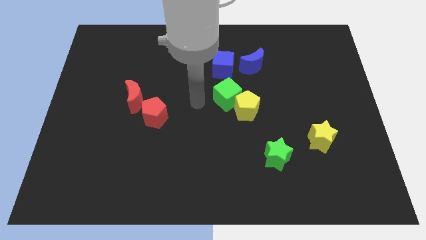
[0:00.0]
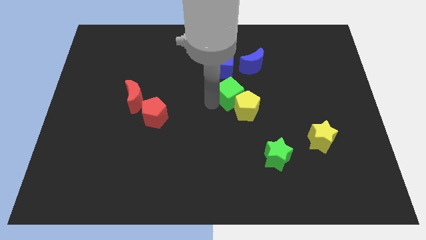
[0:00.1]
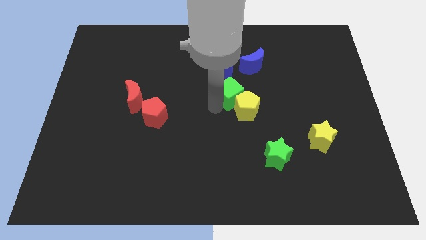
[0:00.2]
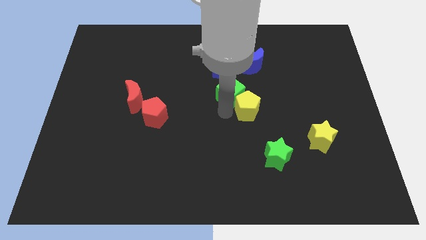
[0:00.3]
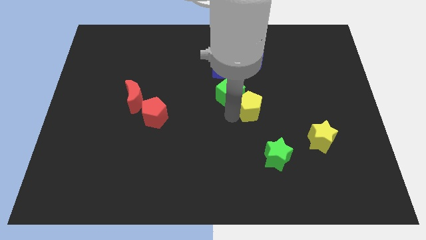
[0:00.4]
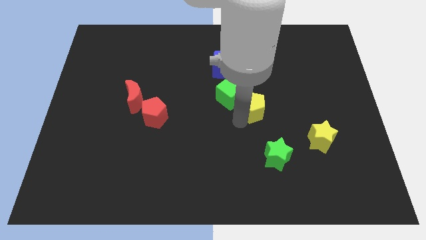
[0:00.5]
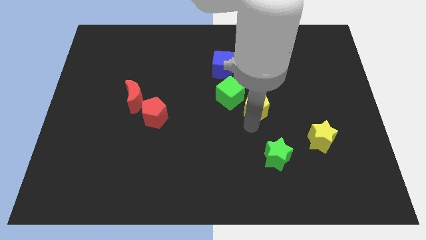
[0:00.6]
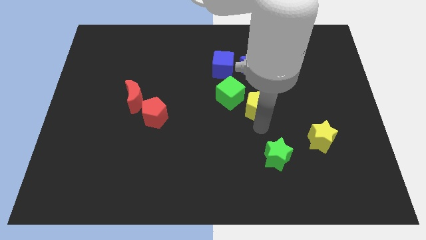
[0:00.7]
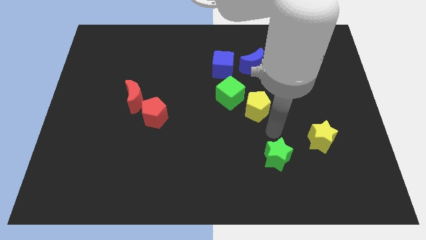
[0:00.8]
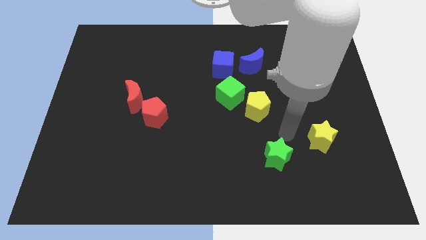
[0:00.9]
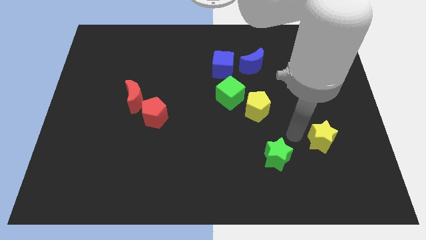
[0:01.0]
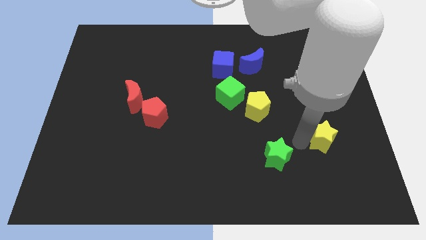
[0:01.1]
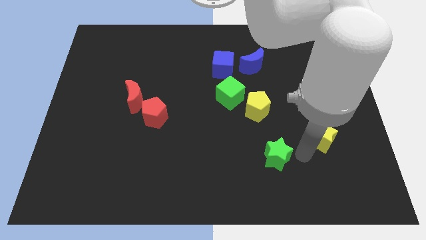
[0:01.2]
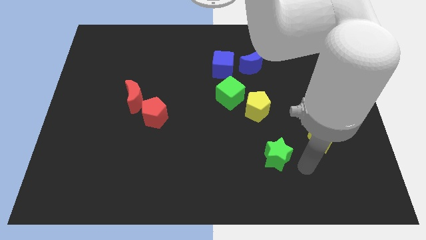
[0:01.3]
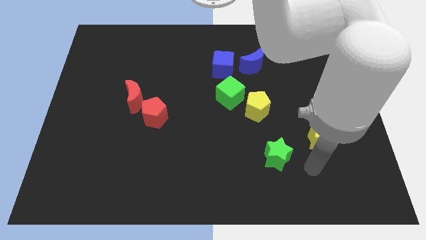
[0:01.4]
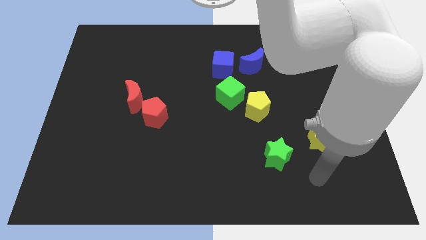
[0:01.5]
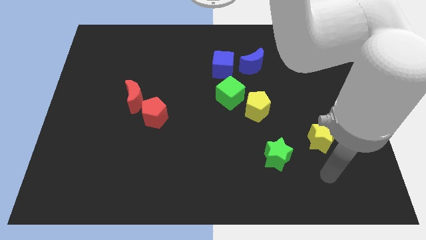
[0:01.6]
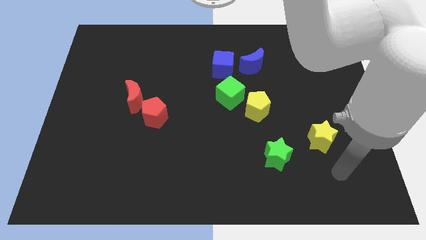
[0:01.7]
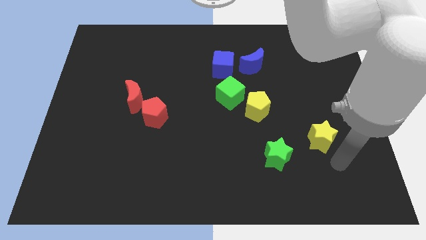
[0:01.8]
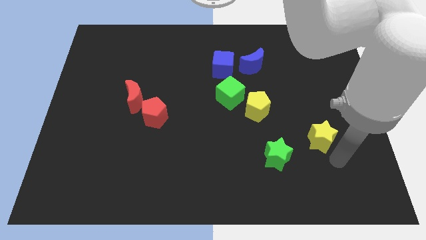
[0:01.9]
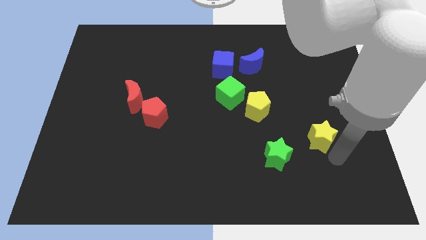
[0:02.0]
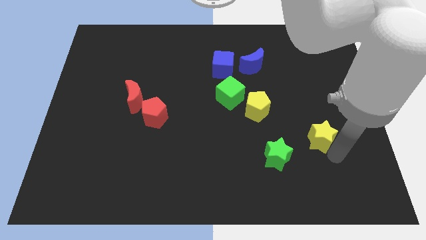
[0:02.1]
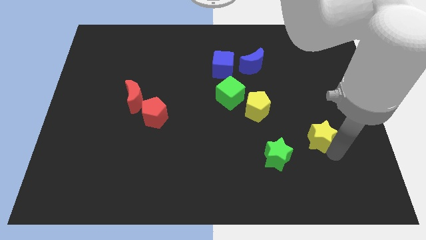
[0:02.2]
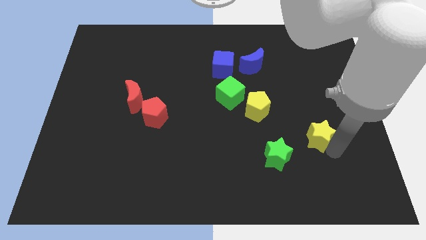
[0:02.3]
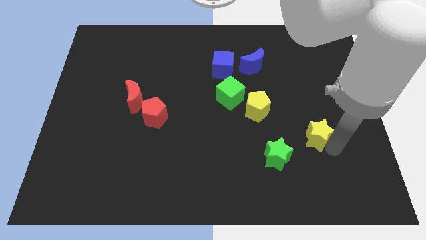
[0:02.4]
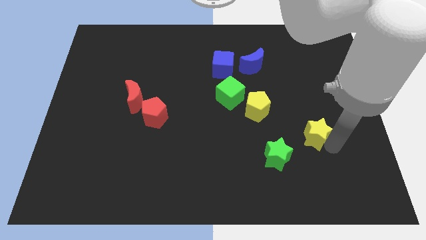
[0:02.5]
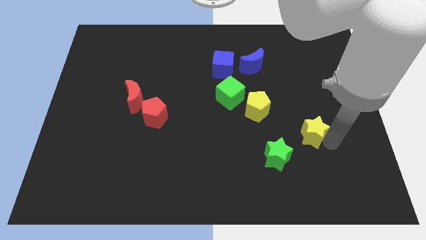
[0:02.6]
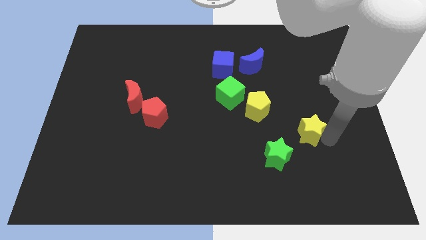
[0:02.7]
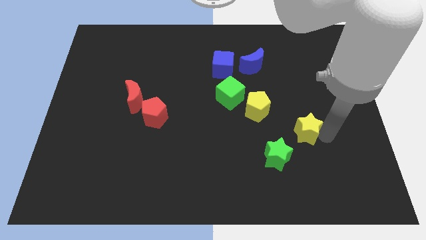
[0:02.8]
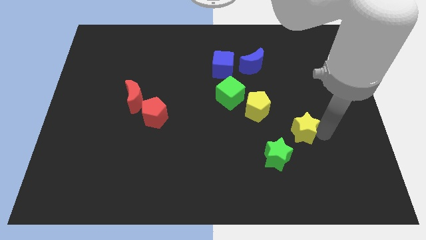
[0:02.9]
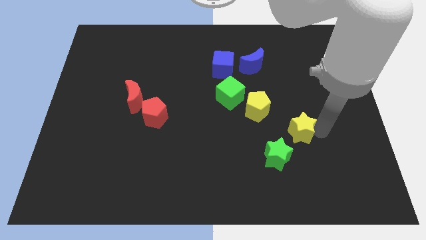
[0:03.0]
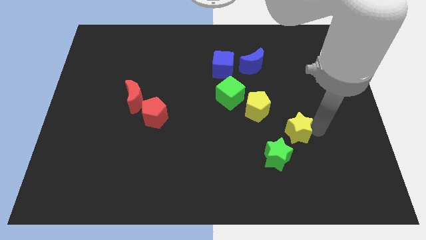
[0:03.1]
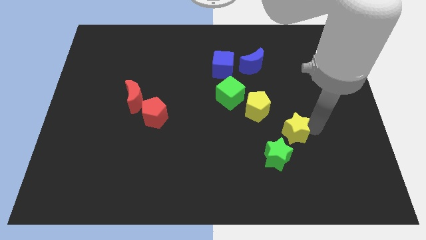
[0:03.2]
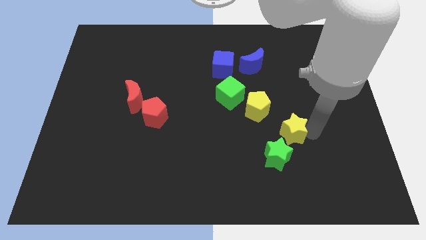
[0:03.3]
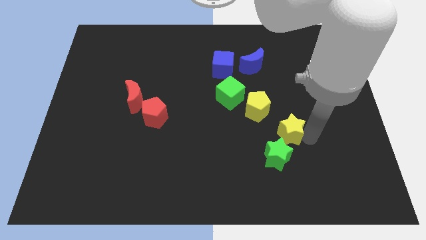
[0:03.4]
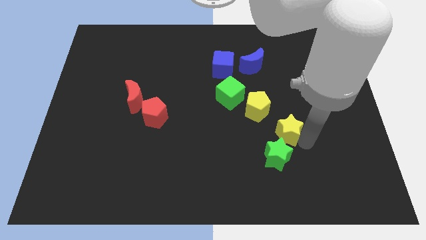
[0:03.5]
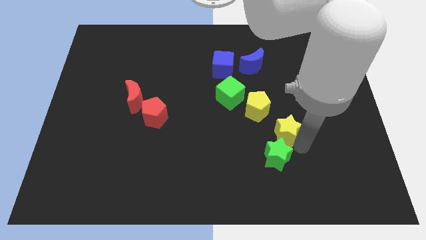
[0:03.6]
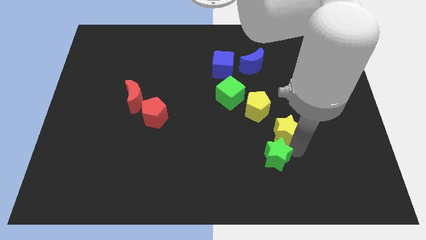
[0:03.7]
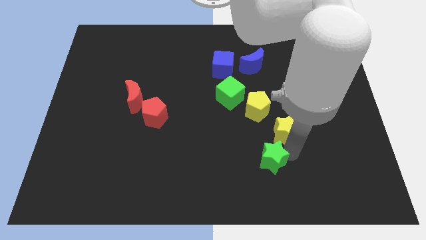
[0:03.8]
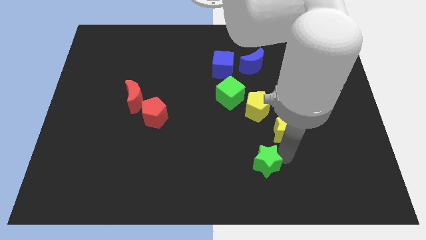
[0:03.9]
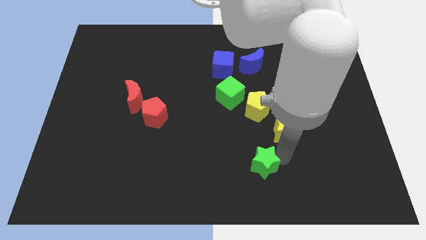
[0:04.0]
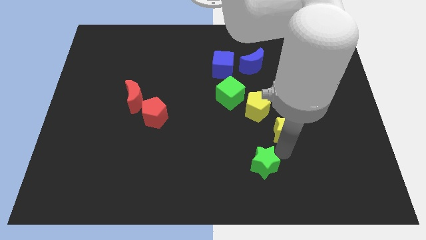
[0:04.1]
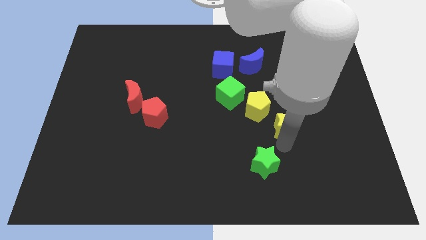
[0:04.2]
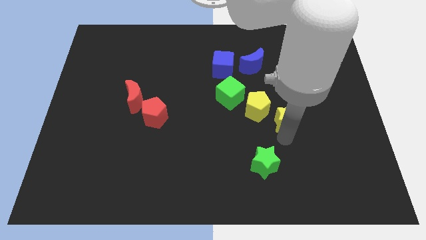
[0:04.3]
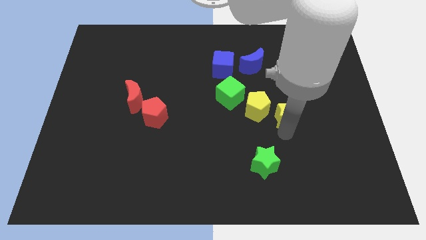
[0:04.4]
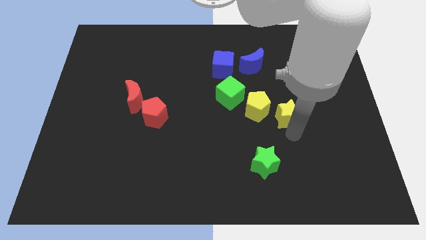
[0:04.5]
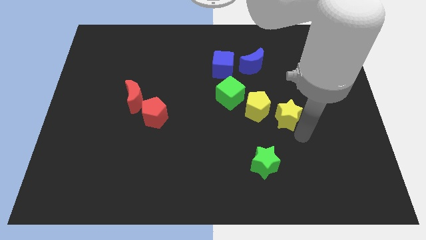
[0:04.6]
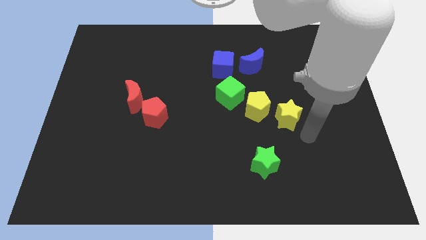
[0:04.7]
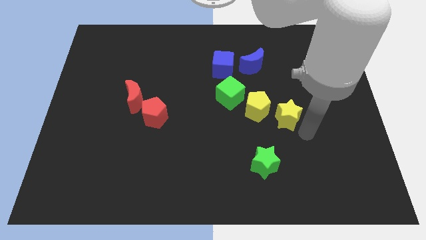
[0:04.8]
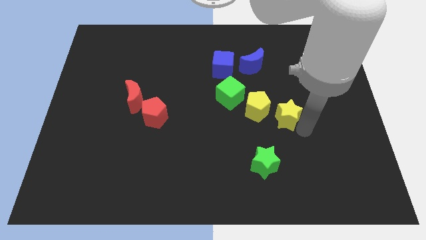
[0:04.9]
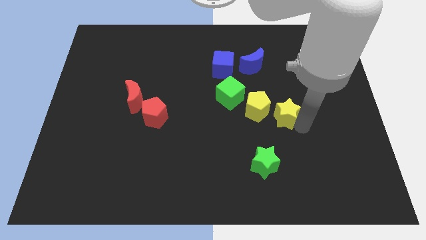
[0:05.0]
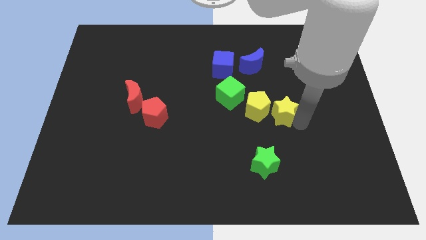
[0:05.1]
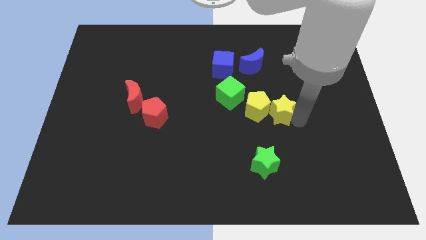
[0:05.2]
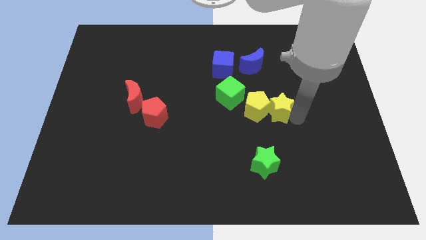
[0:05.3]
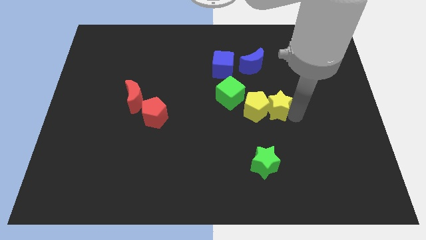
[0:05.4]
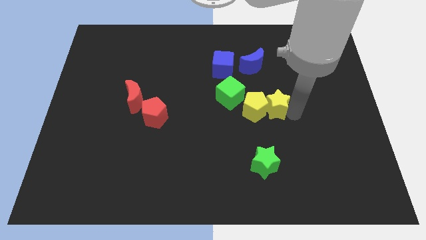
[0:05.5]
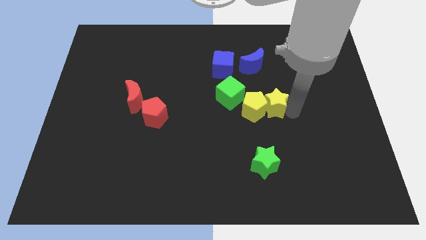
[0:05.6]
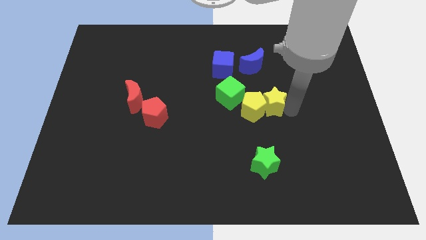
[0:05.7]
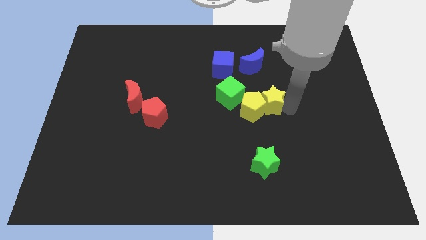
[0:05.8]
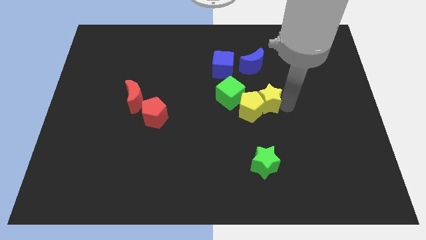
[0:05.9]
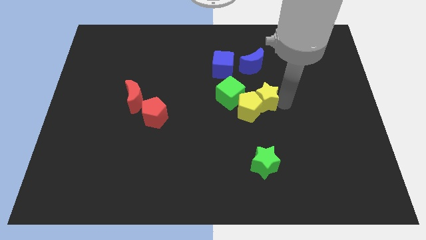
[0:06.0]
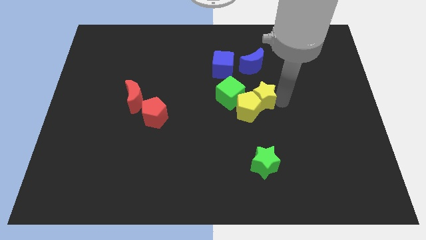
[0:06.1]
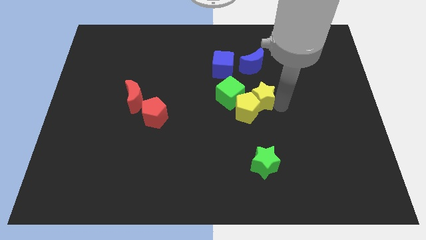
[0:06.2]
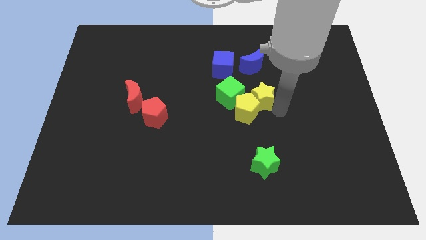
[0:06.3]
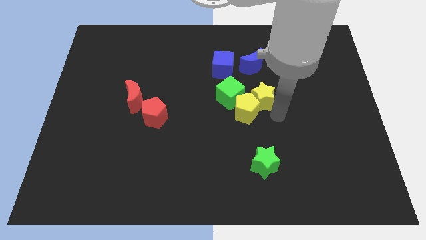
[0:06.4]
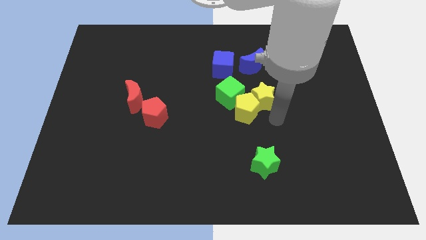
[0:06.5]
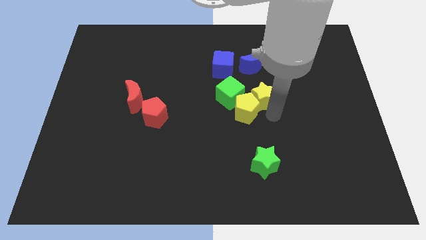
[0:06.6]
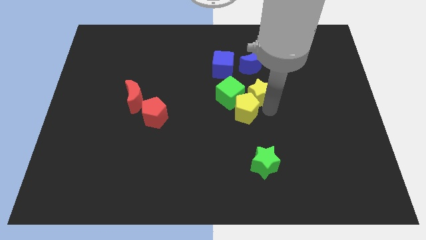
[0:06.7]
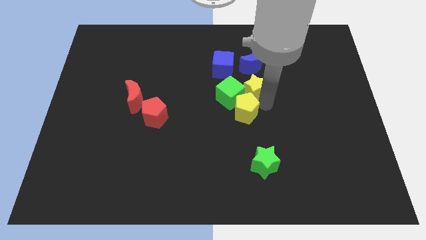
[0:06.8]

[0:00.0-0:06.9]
push the yellow star to the top right side of the green cube
